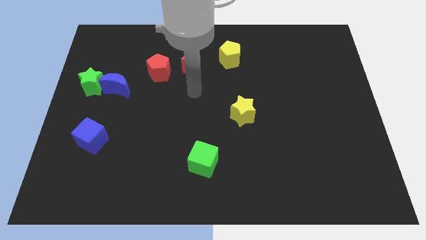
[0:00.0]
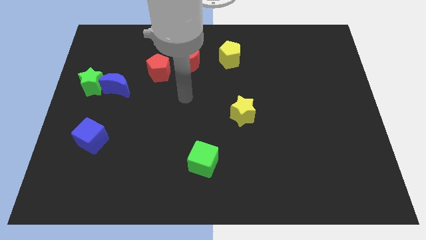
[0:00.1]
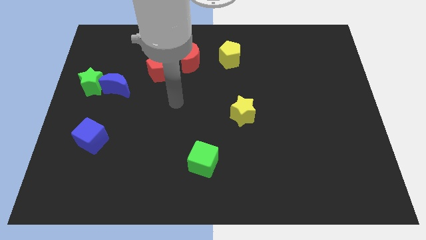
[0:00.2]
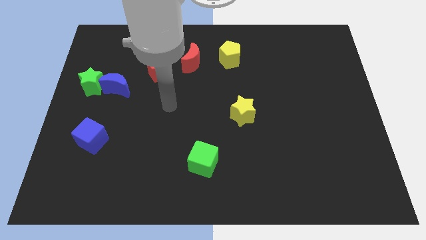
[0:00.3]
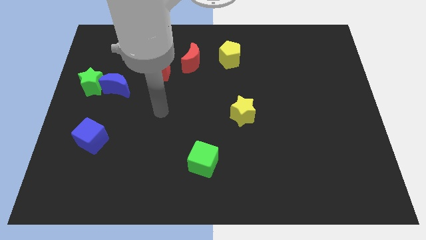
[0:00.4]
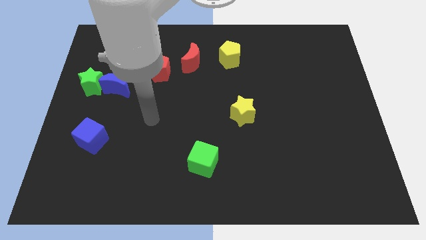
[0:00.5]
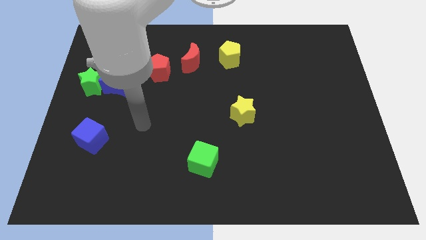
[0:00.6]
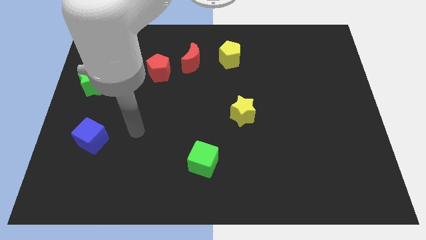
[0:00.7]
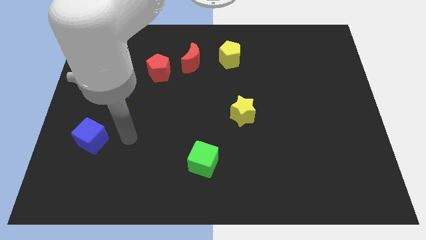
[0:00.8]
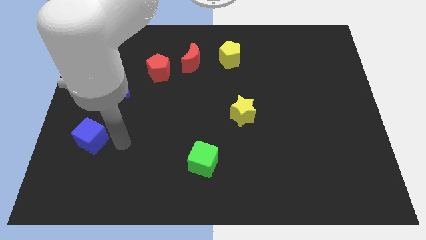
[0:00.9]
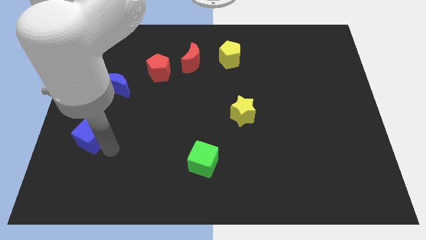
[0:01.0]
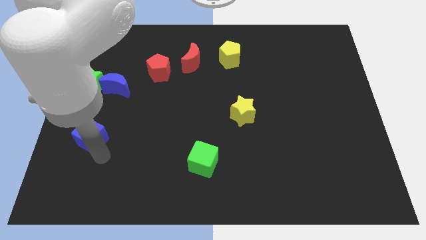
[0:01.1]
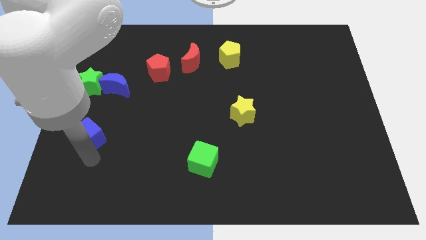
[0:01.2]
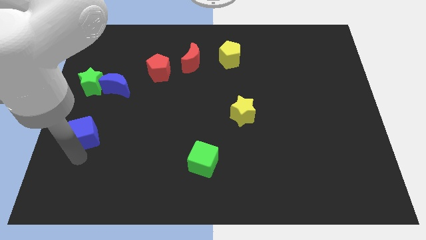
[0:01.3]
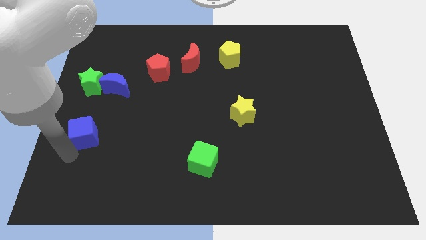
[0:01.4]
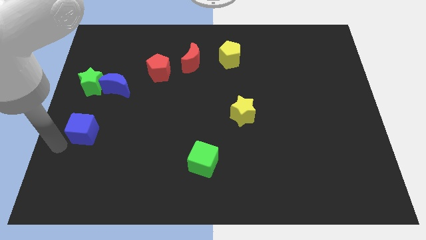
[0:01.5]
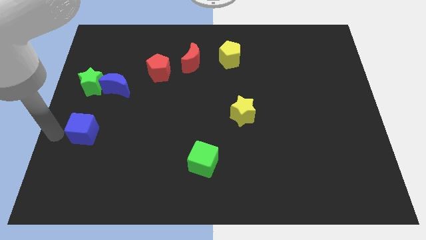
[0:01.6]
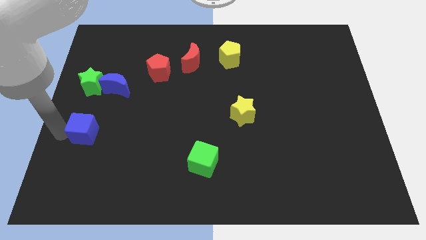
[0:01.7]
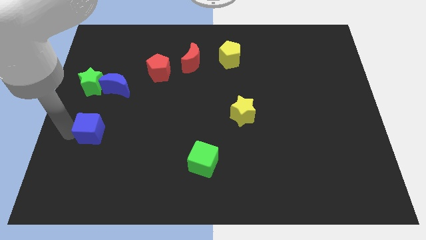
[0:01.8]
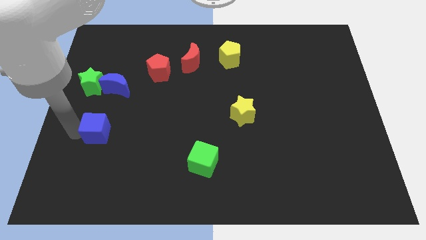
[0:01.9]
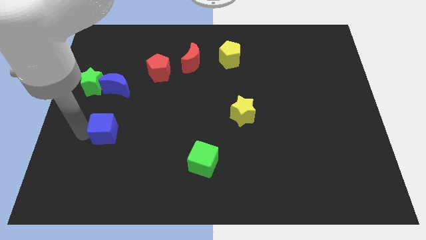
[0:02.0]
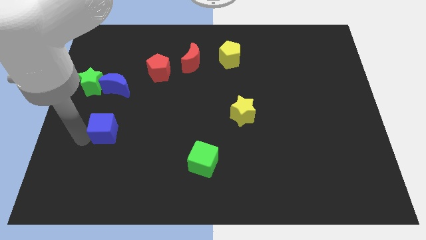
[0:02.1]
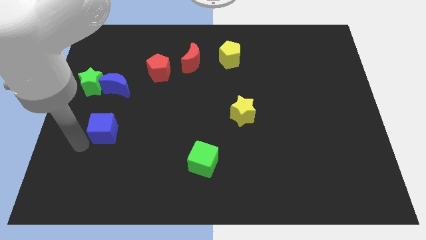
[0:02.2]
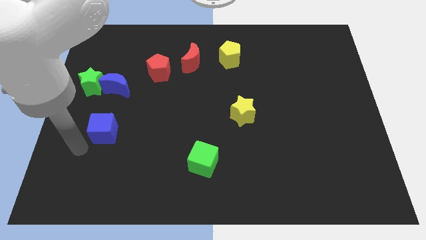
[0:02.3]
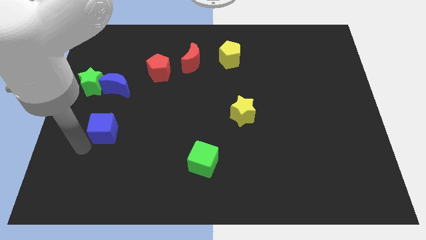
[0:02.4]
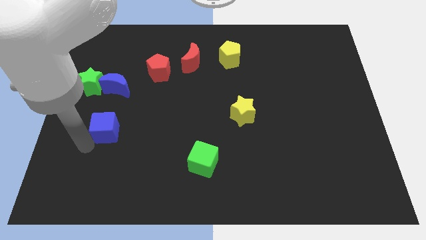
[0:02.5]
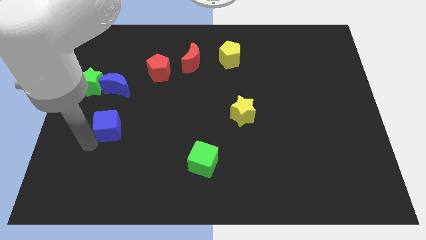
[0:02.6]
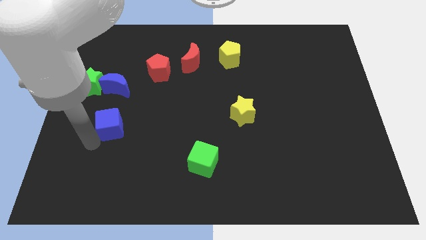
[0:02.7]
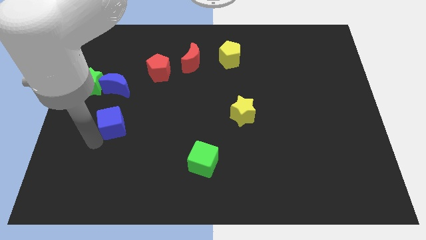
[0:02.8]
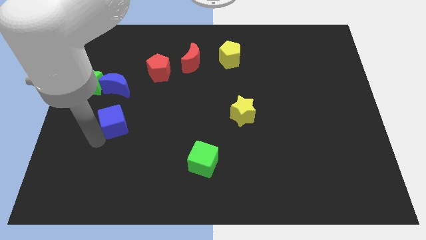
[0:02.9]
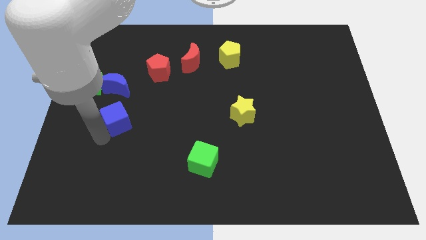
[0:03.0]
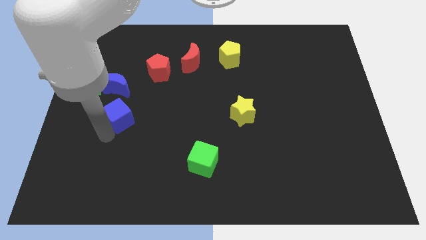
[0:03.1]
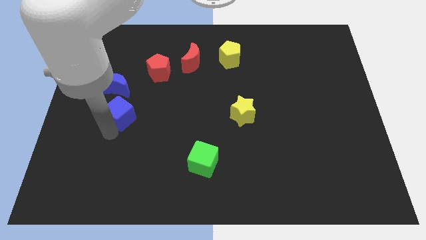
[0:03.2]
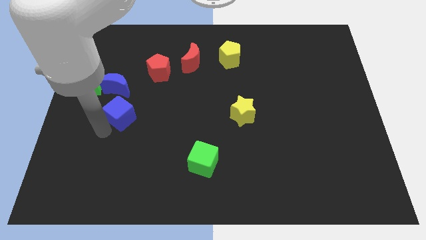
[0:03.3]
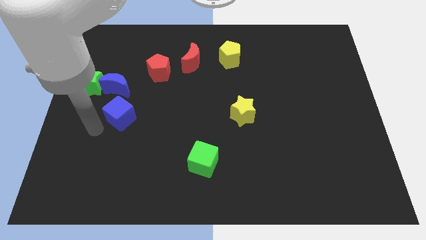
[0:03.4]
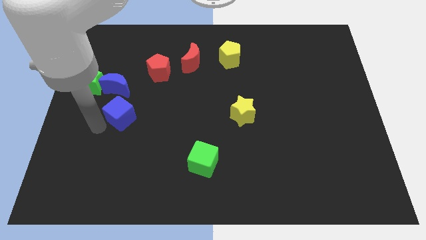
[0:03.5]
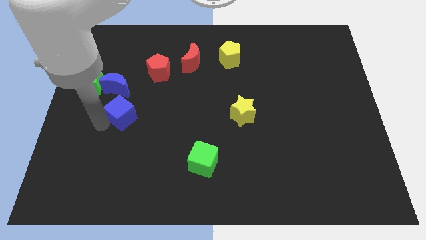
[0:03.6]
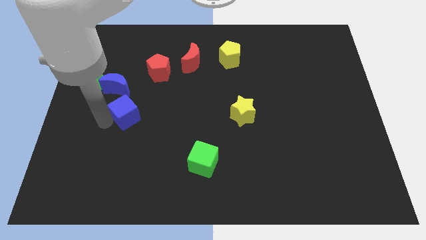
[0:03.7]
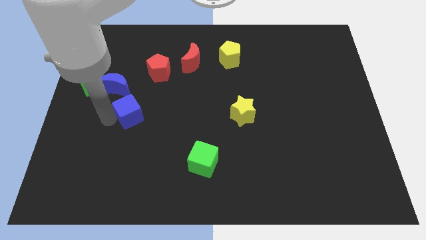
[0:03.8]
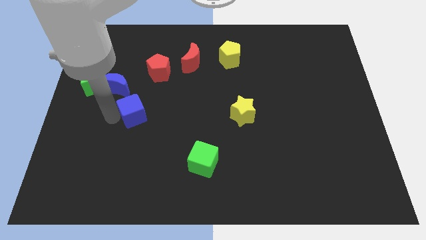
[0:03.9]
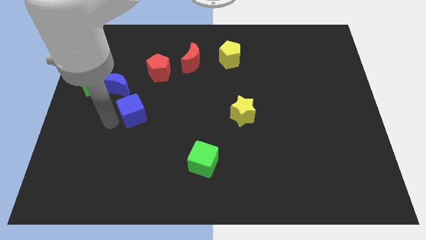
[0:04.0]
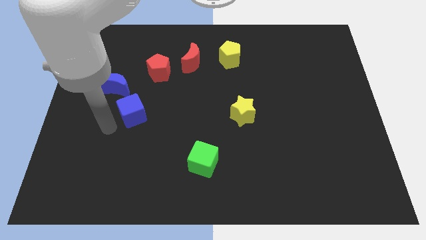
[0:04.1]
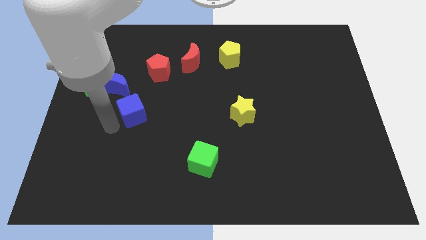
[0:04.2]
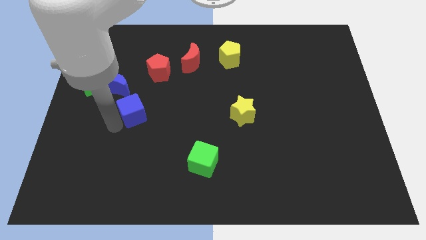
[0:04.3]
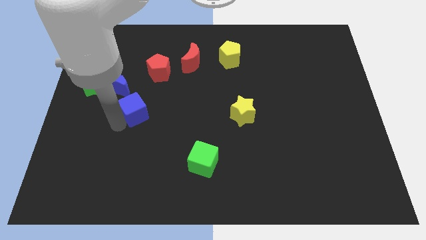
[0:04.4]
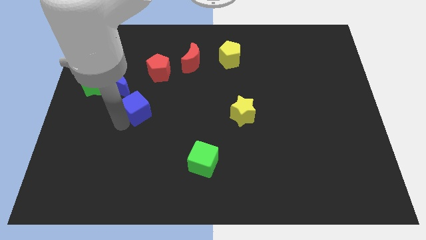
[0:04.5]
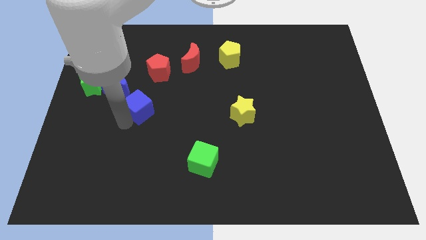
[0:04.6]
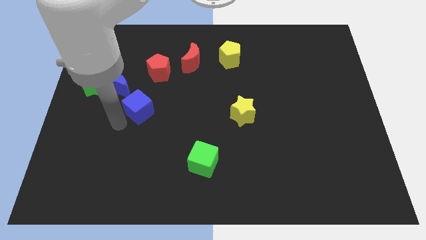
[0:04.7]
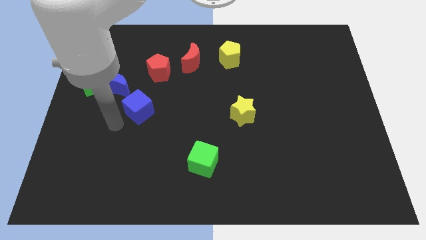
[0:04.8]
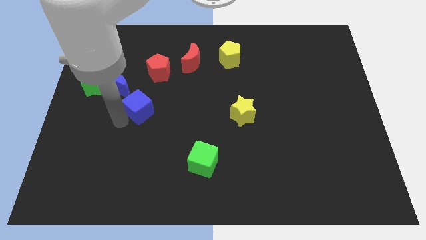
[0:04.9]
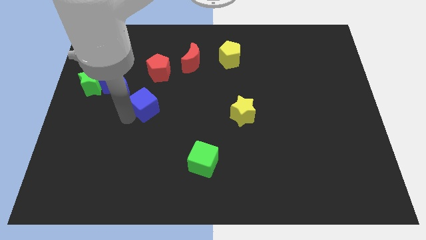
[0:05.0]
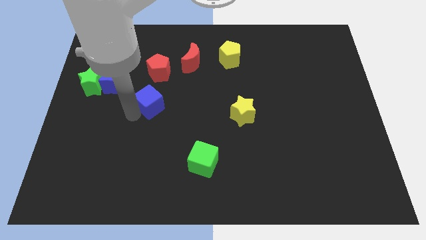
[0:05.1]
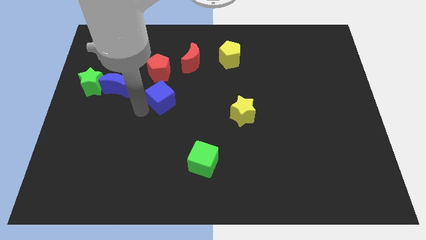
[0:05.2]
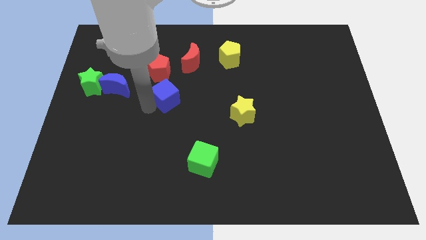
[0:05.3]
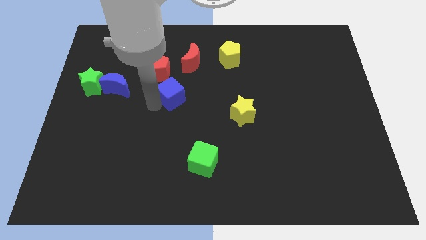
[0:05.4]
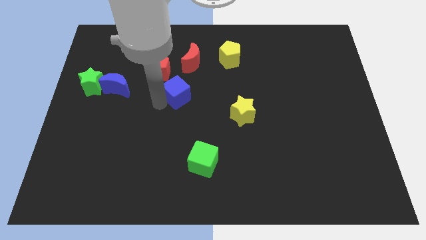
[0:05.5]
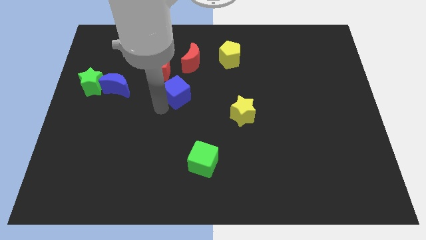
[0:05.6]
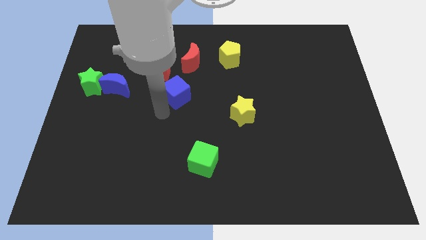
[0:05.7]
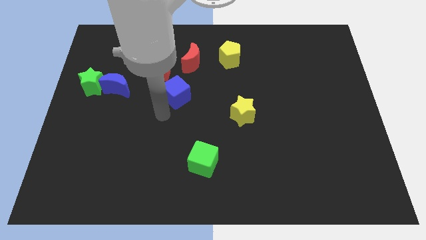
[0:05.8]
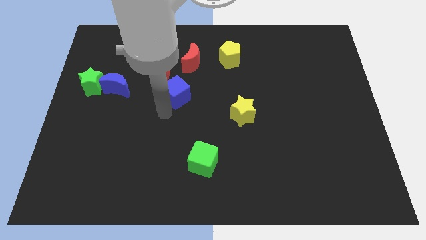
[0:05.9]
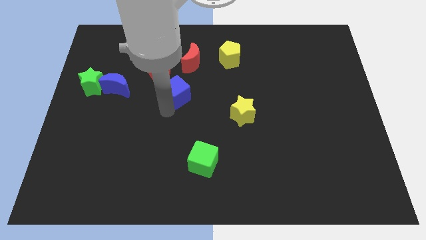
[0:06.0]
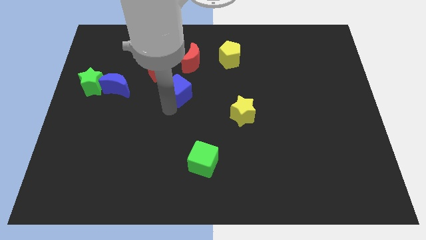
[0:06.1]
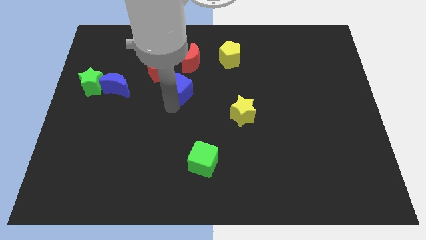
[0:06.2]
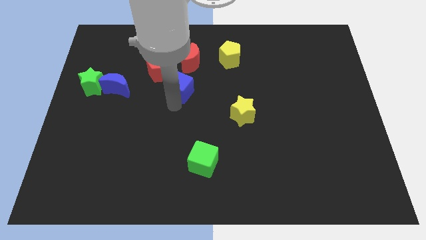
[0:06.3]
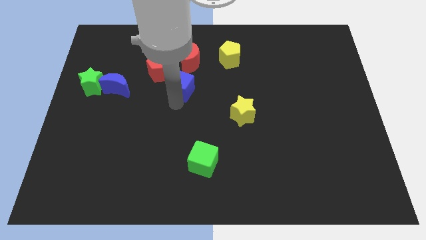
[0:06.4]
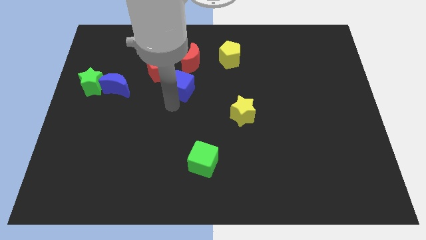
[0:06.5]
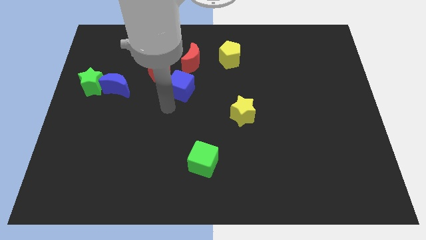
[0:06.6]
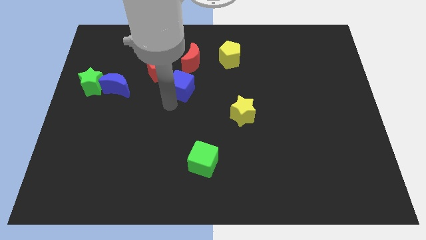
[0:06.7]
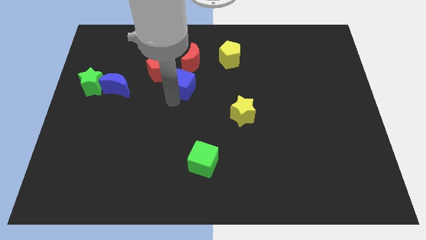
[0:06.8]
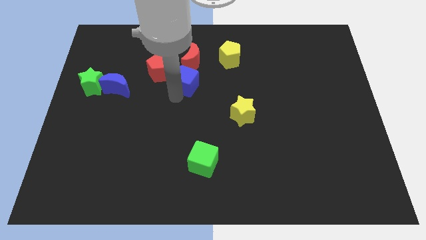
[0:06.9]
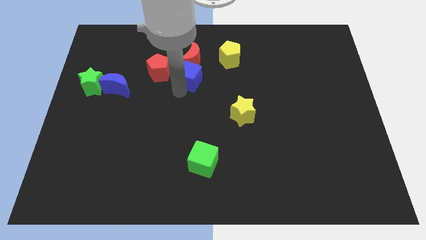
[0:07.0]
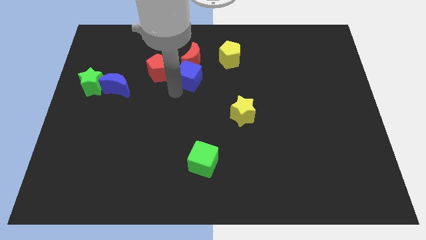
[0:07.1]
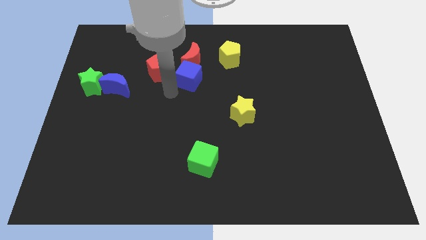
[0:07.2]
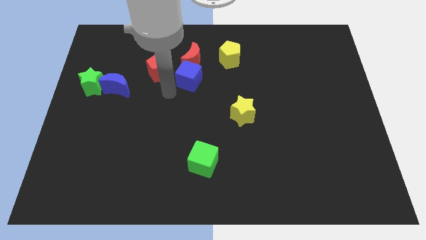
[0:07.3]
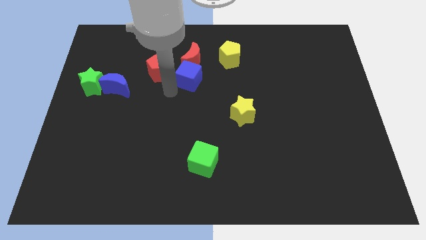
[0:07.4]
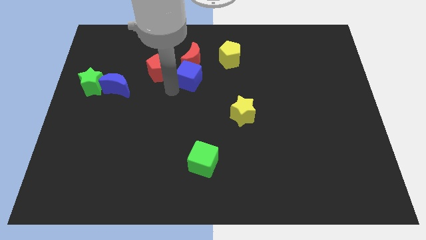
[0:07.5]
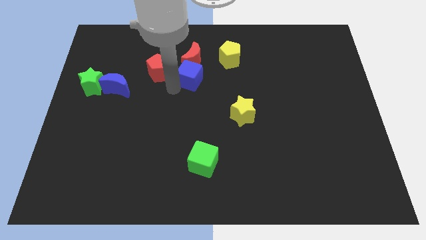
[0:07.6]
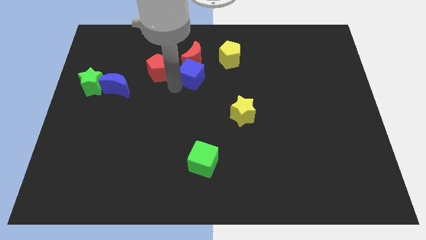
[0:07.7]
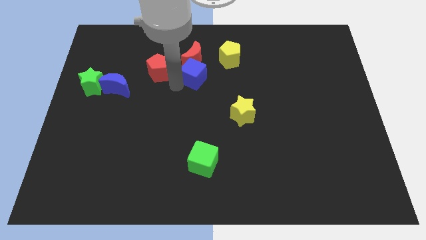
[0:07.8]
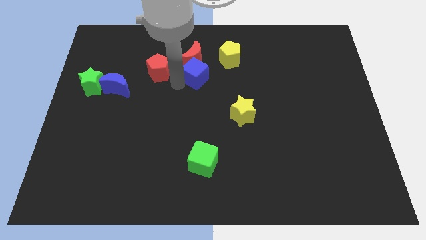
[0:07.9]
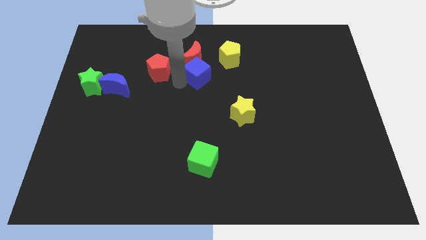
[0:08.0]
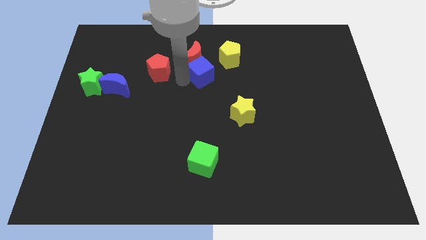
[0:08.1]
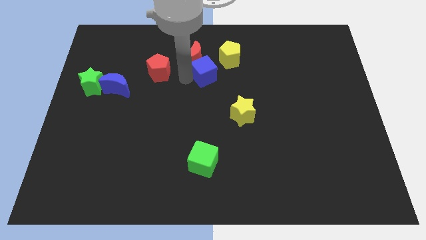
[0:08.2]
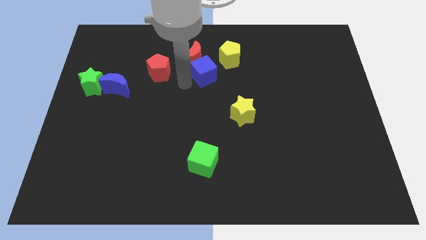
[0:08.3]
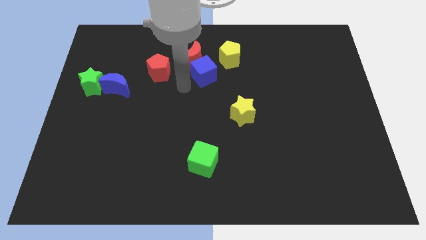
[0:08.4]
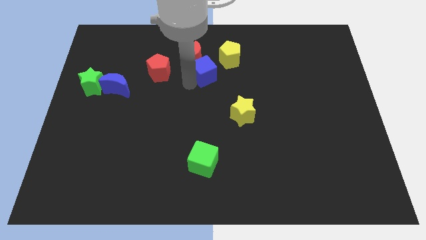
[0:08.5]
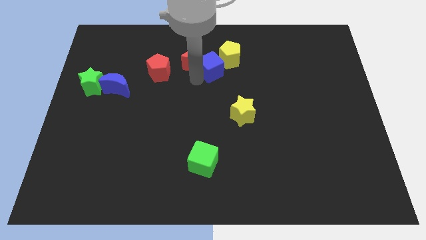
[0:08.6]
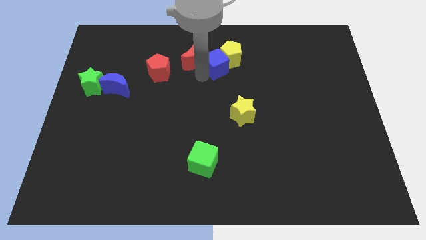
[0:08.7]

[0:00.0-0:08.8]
push the blue cube close to the yellow pentagon
